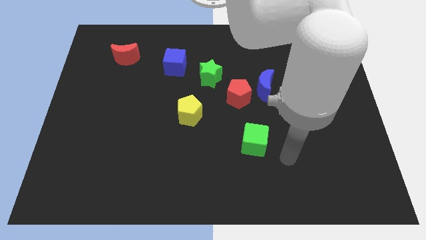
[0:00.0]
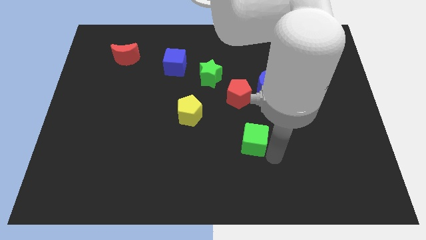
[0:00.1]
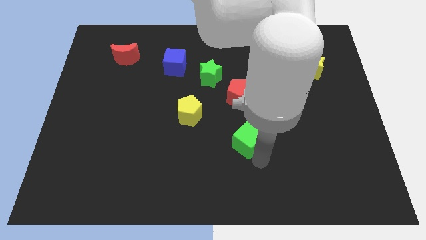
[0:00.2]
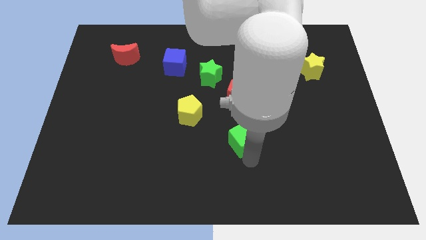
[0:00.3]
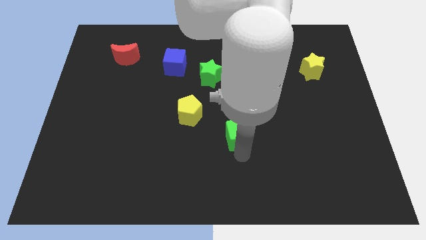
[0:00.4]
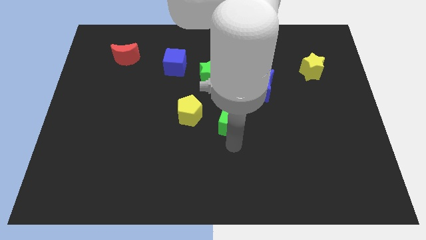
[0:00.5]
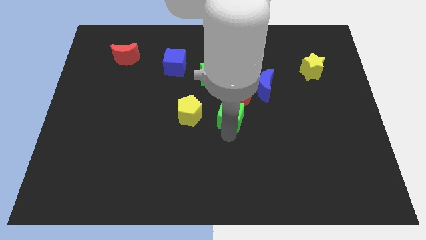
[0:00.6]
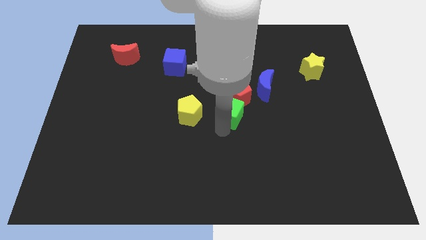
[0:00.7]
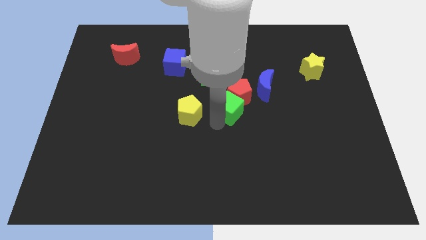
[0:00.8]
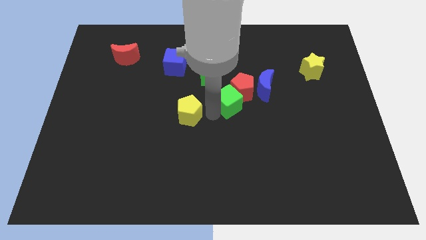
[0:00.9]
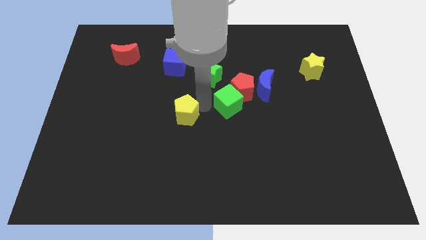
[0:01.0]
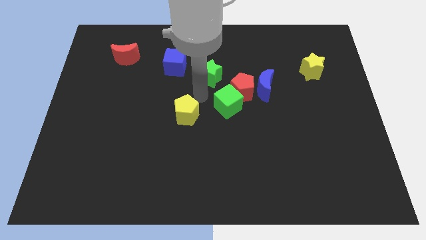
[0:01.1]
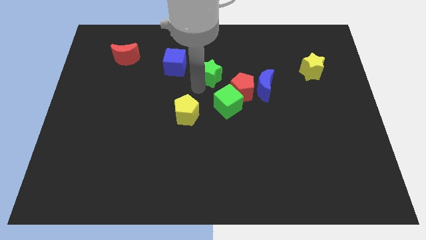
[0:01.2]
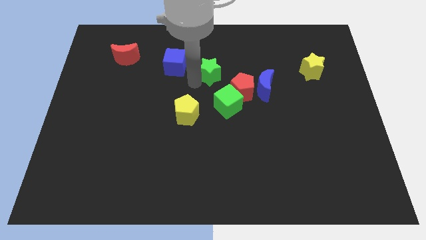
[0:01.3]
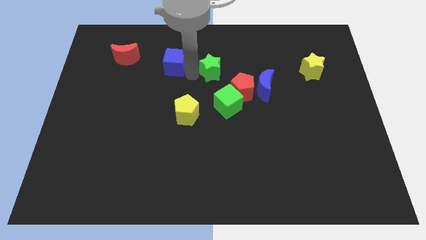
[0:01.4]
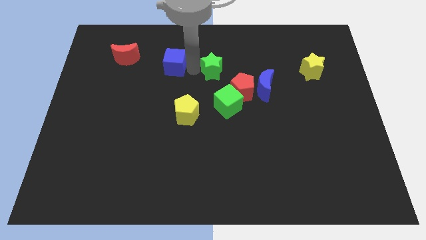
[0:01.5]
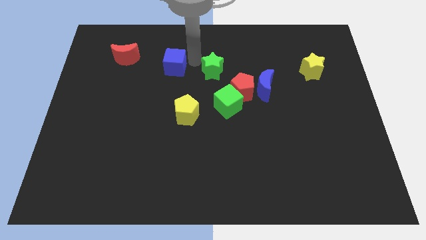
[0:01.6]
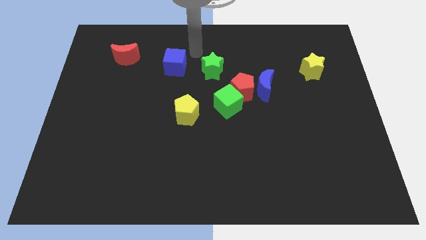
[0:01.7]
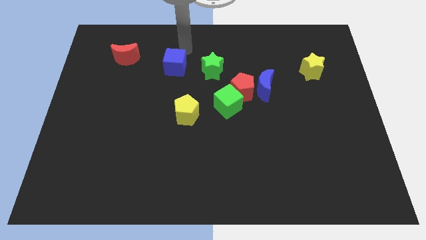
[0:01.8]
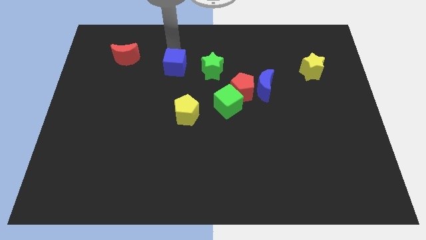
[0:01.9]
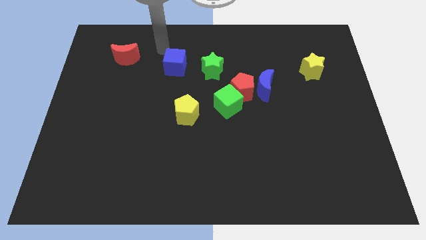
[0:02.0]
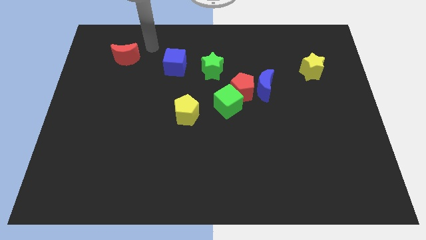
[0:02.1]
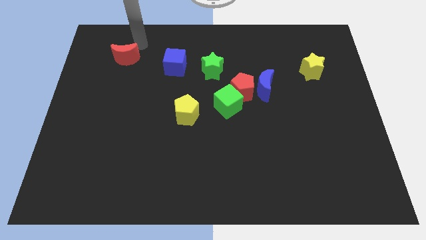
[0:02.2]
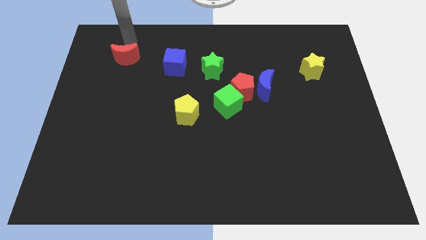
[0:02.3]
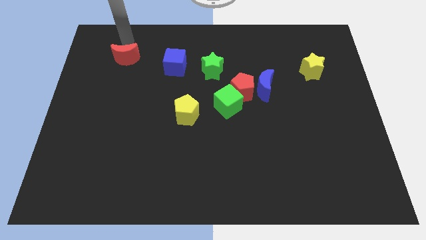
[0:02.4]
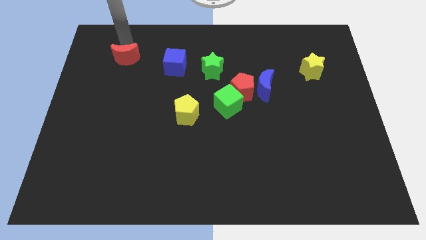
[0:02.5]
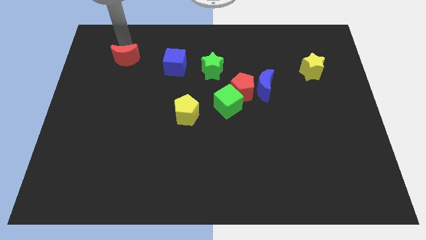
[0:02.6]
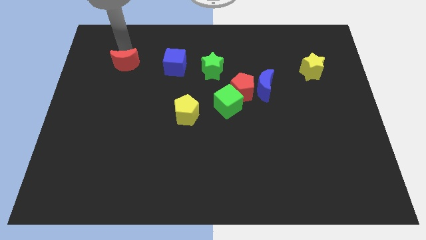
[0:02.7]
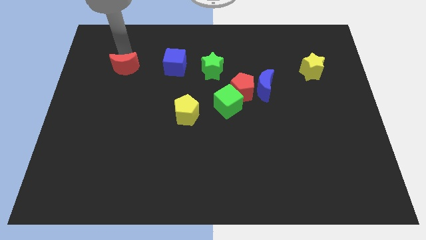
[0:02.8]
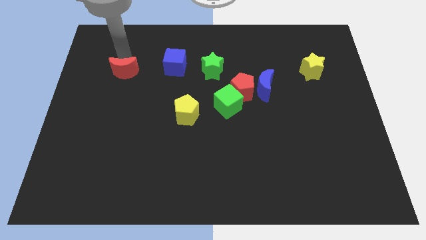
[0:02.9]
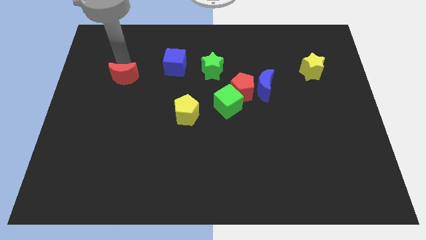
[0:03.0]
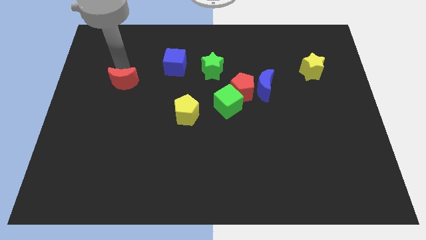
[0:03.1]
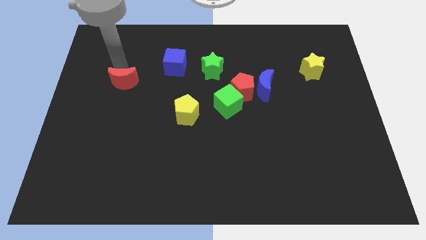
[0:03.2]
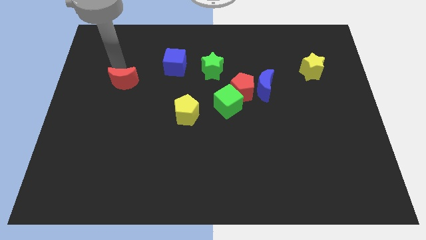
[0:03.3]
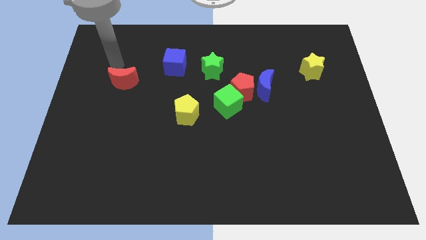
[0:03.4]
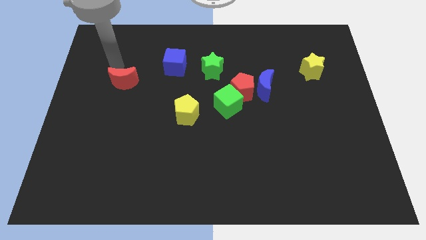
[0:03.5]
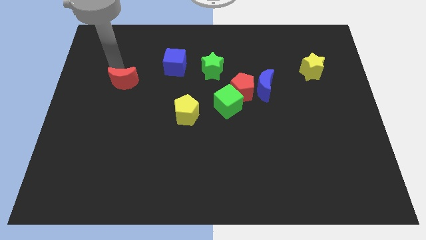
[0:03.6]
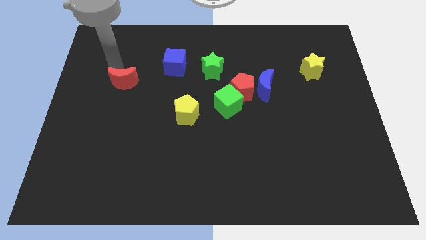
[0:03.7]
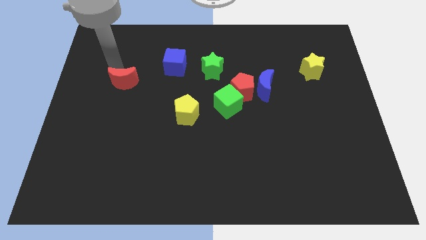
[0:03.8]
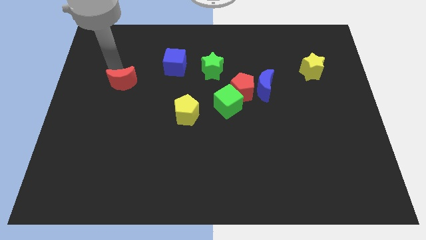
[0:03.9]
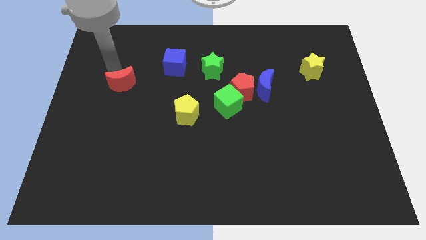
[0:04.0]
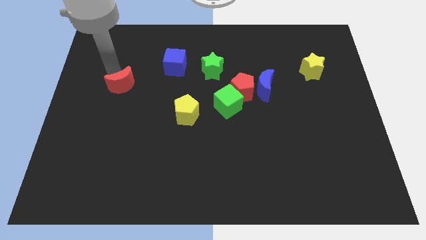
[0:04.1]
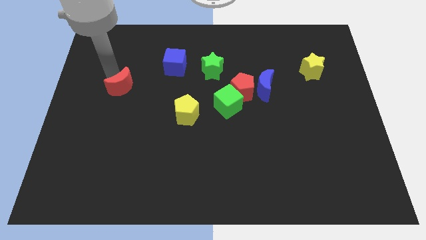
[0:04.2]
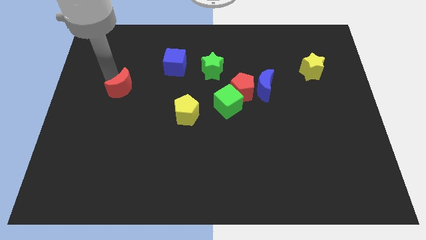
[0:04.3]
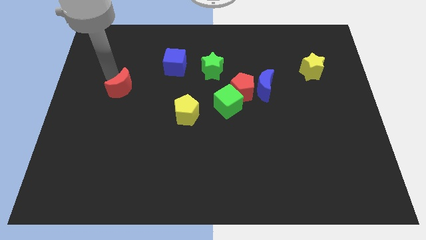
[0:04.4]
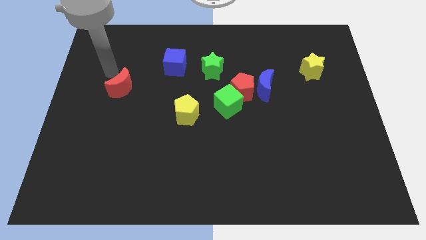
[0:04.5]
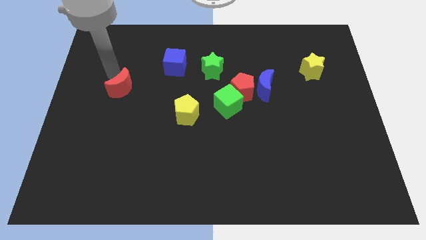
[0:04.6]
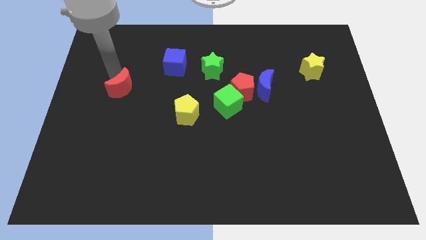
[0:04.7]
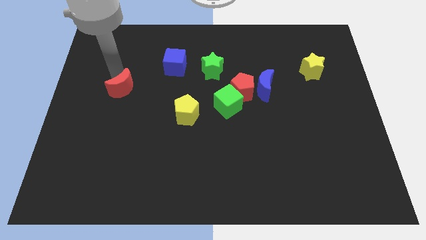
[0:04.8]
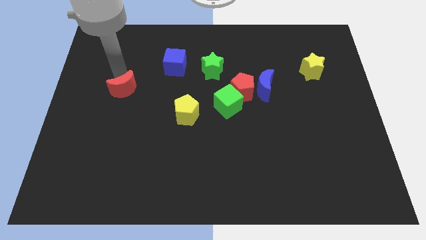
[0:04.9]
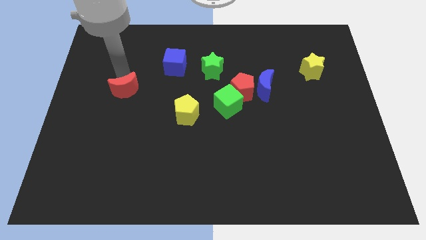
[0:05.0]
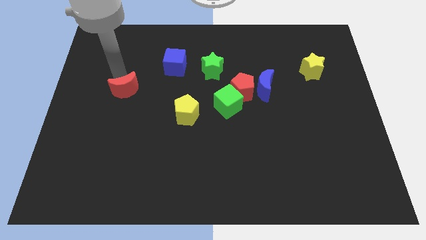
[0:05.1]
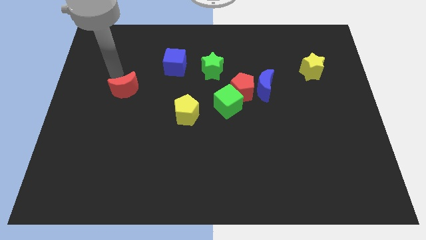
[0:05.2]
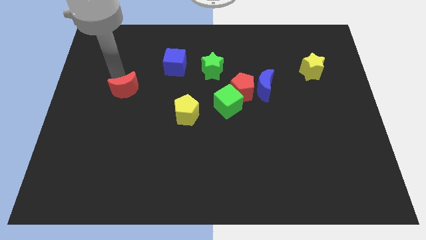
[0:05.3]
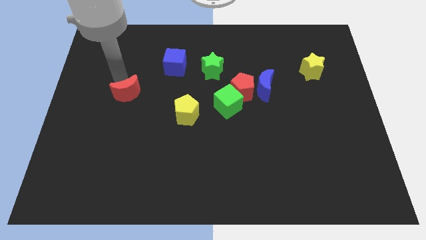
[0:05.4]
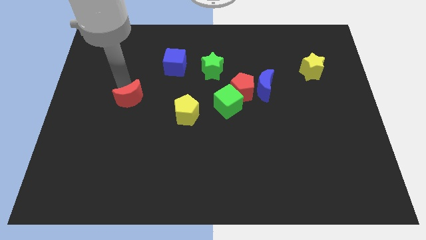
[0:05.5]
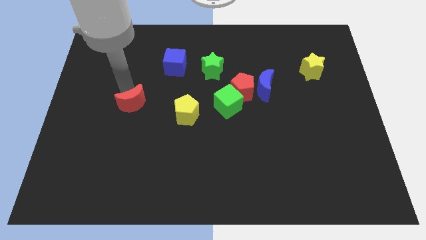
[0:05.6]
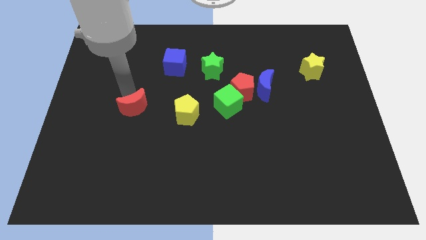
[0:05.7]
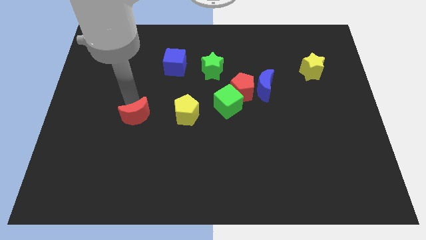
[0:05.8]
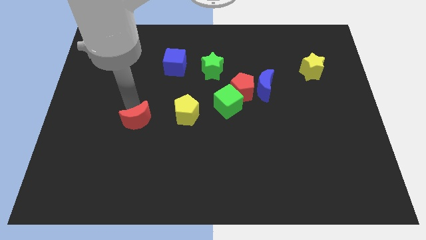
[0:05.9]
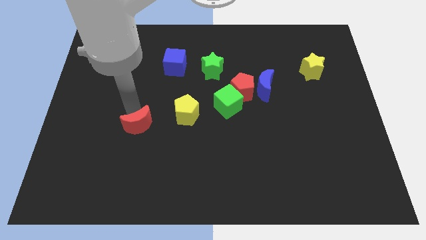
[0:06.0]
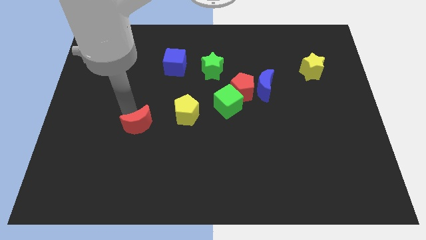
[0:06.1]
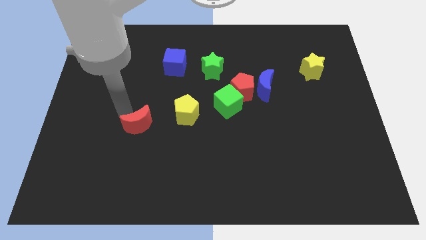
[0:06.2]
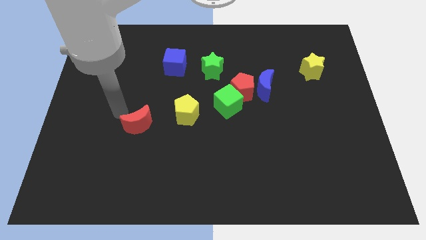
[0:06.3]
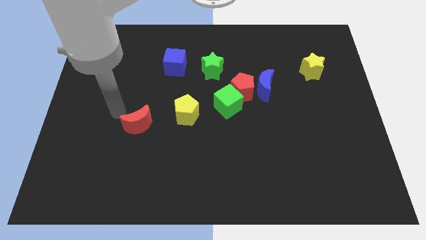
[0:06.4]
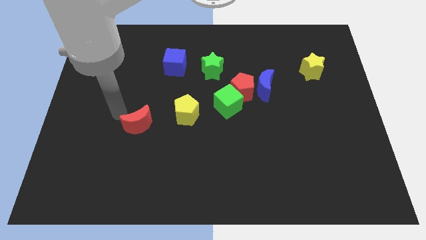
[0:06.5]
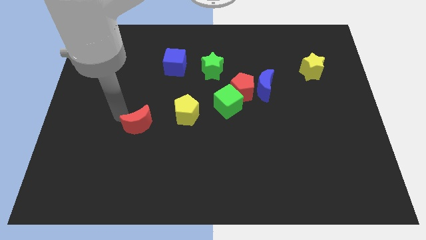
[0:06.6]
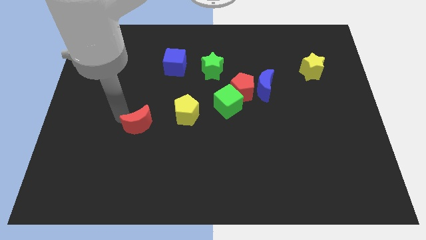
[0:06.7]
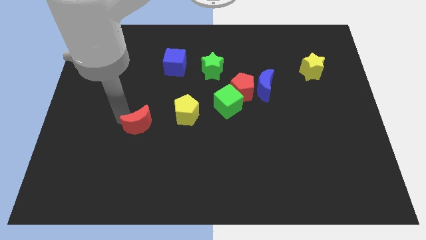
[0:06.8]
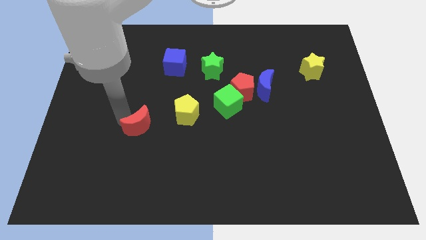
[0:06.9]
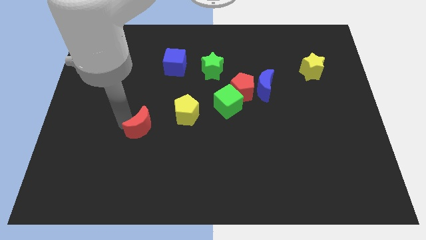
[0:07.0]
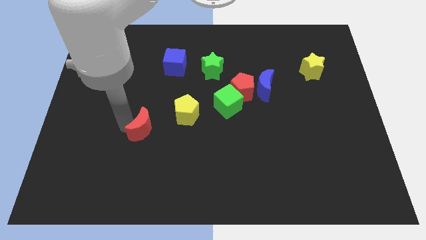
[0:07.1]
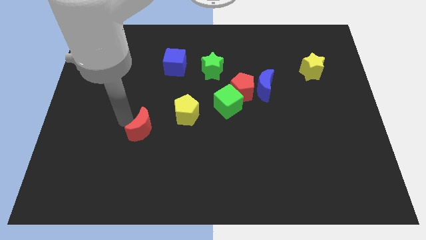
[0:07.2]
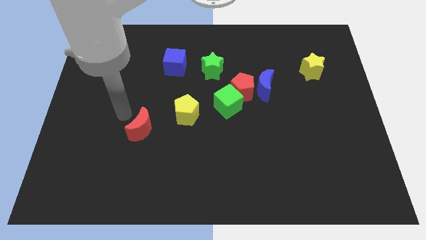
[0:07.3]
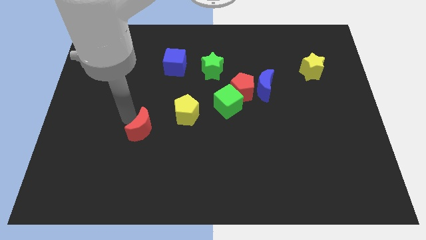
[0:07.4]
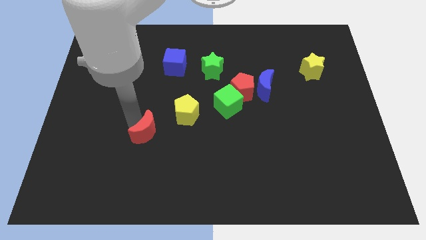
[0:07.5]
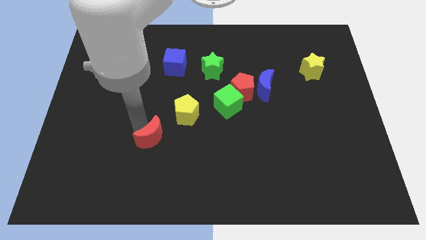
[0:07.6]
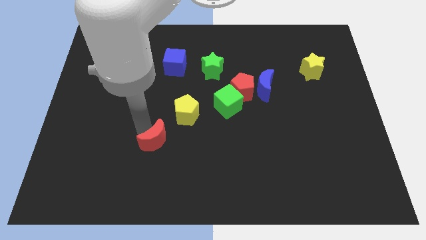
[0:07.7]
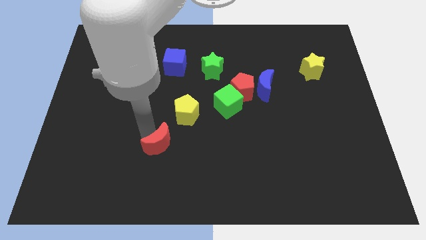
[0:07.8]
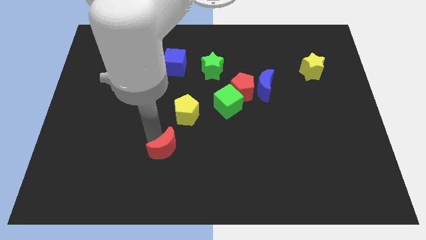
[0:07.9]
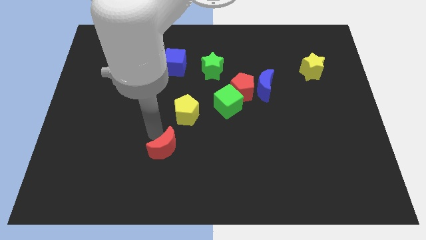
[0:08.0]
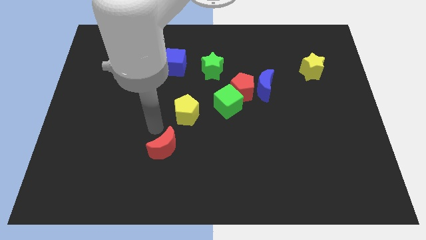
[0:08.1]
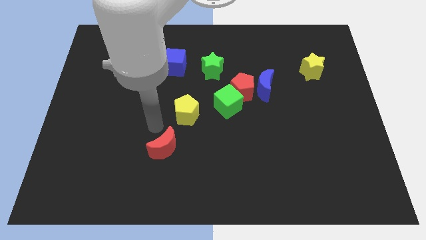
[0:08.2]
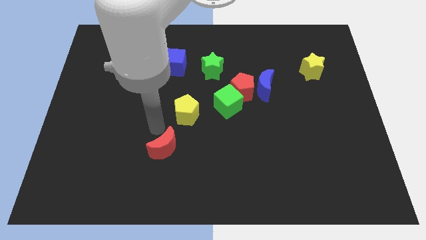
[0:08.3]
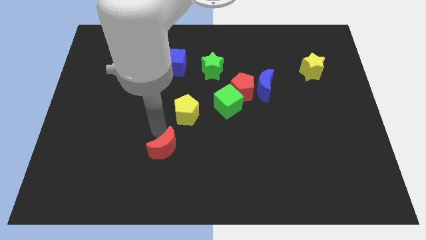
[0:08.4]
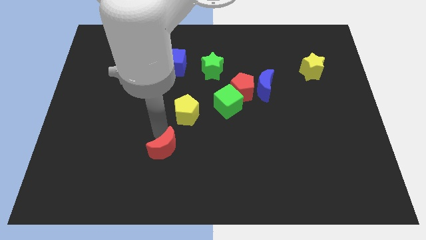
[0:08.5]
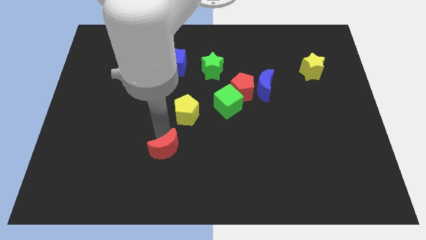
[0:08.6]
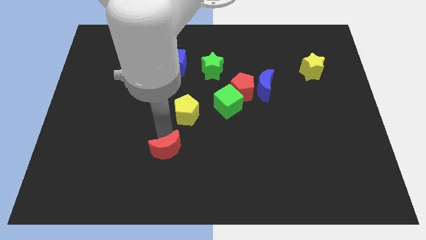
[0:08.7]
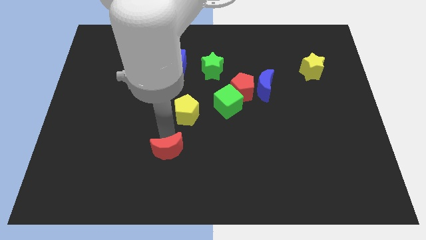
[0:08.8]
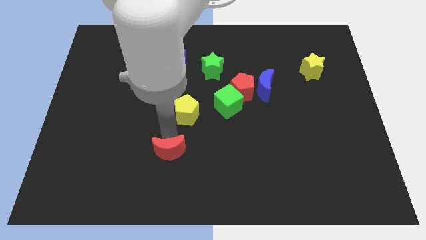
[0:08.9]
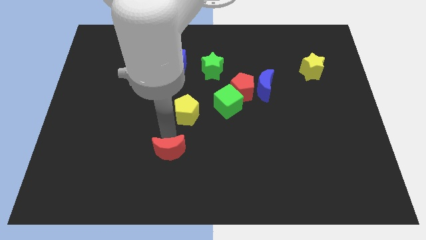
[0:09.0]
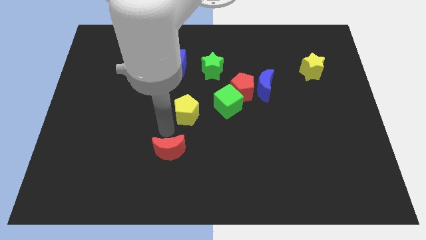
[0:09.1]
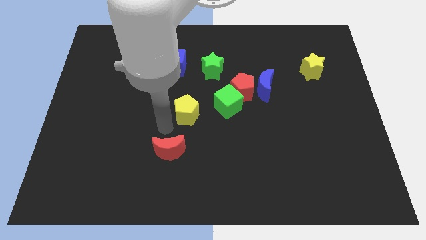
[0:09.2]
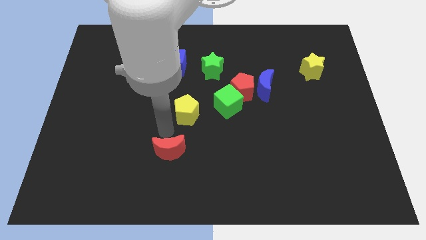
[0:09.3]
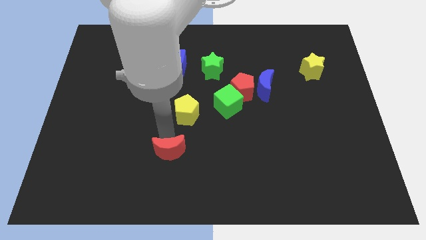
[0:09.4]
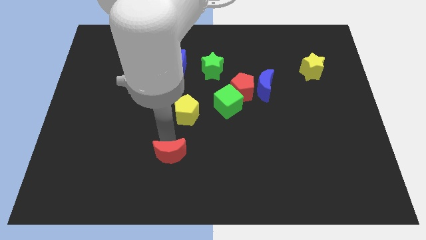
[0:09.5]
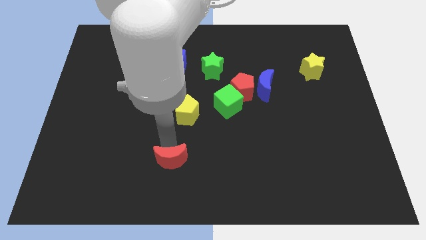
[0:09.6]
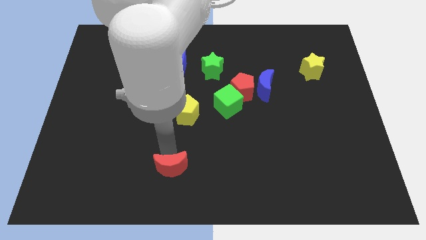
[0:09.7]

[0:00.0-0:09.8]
put the red moon to the bottom
